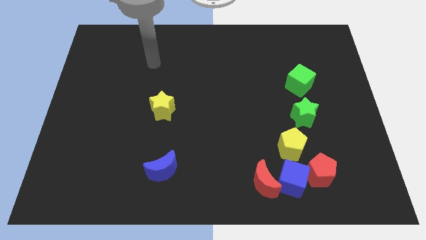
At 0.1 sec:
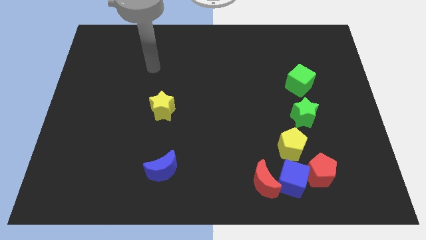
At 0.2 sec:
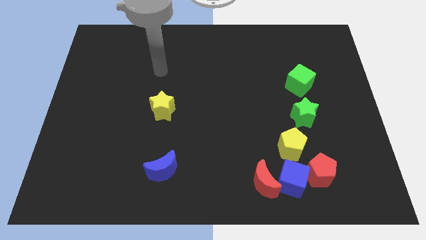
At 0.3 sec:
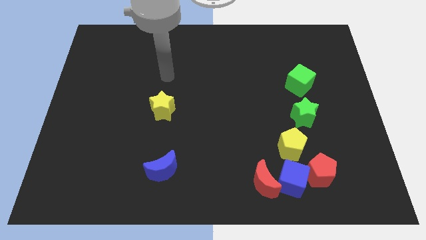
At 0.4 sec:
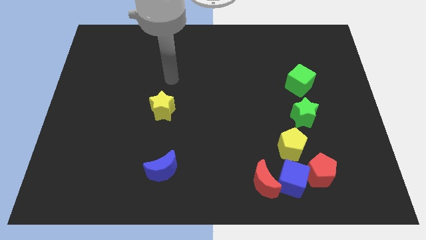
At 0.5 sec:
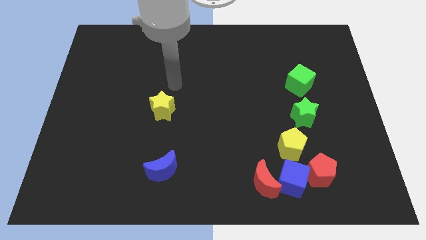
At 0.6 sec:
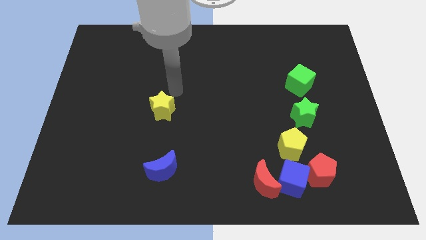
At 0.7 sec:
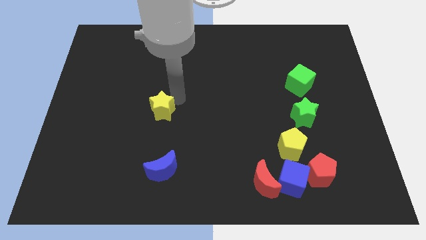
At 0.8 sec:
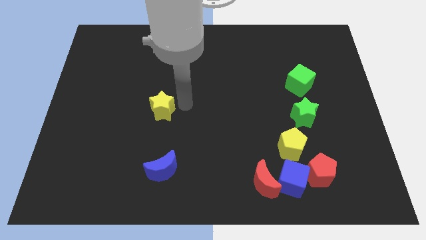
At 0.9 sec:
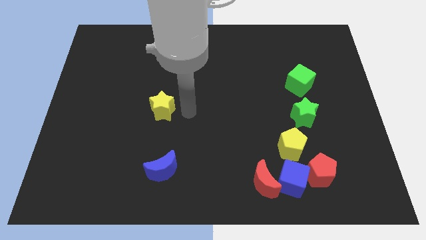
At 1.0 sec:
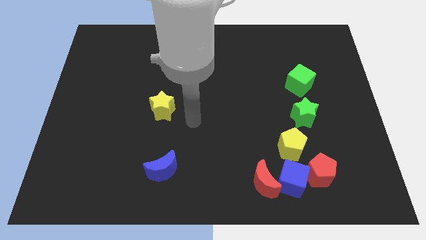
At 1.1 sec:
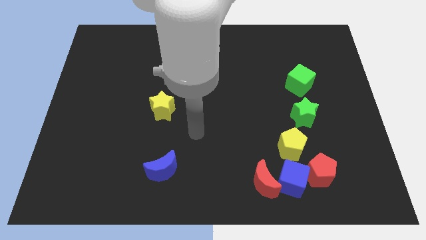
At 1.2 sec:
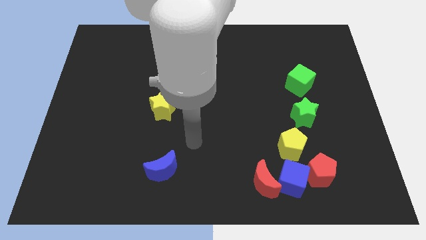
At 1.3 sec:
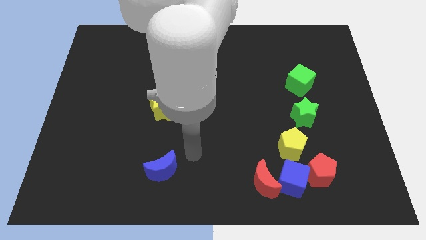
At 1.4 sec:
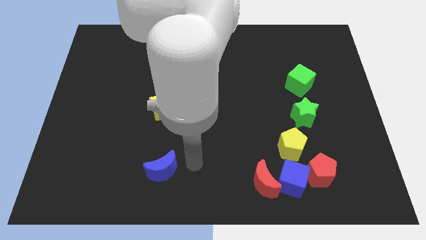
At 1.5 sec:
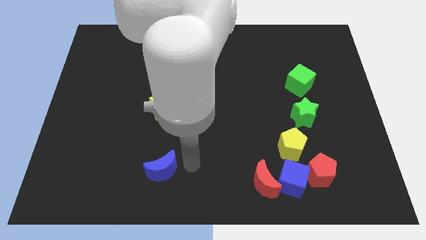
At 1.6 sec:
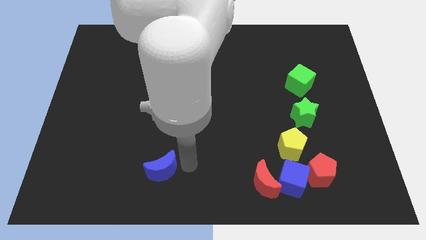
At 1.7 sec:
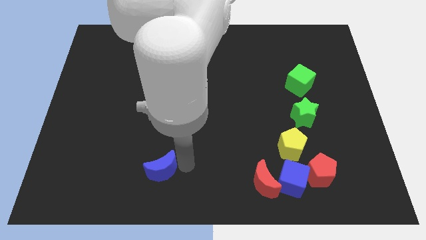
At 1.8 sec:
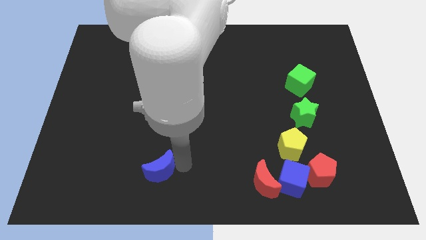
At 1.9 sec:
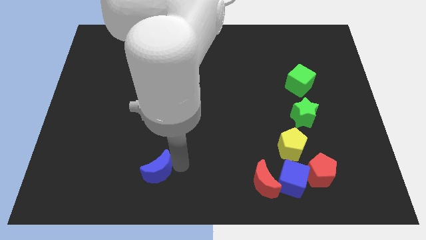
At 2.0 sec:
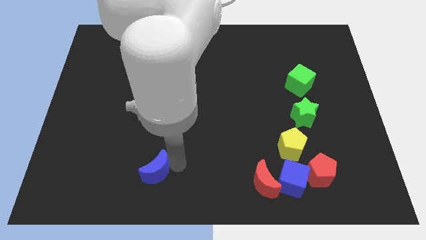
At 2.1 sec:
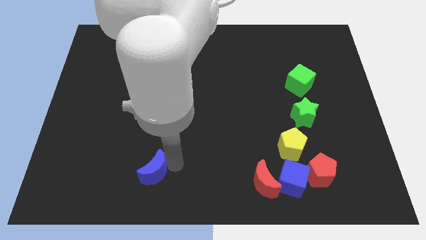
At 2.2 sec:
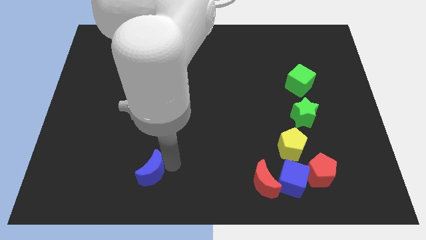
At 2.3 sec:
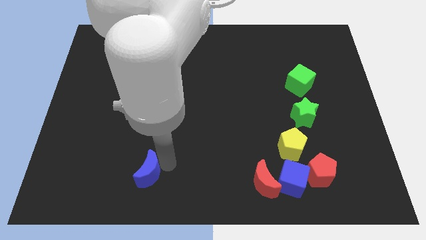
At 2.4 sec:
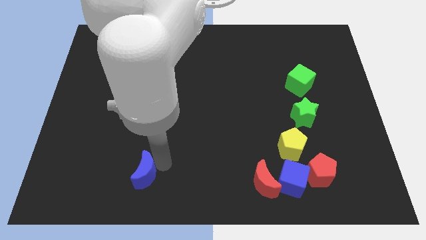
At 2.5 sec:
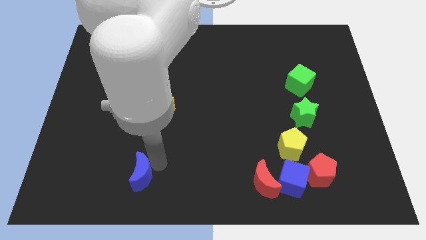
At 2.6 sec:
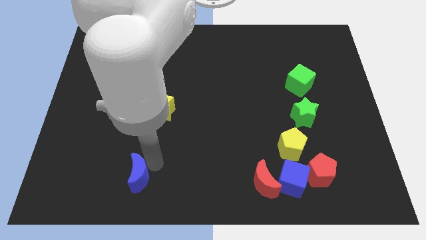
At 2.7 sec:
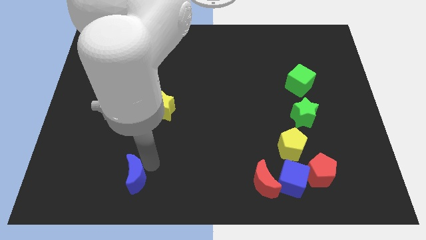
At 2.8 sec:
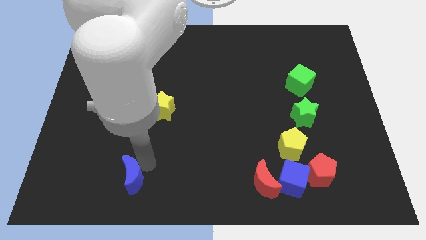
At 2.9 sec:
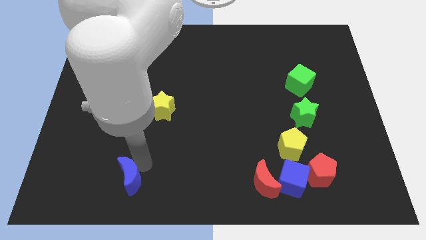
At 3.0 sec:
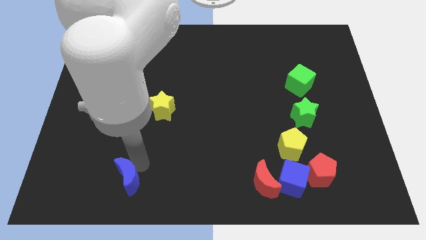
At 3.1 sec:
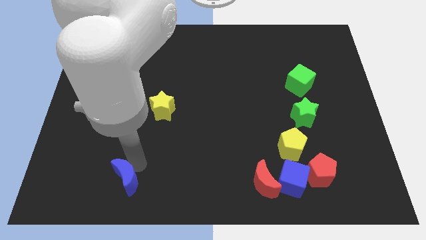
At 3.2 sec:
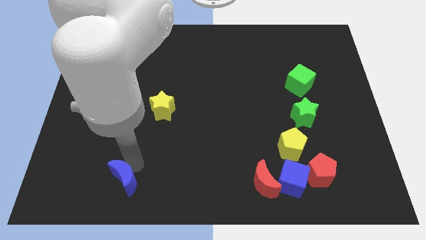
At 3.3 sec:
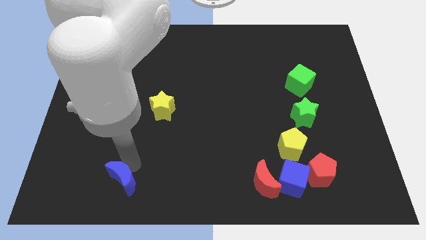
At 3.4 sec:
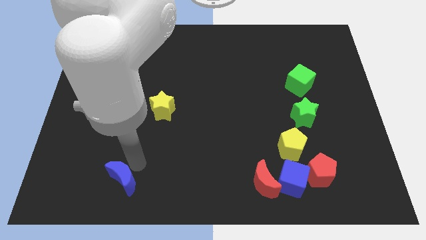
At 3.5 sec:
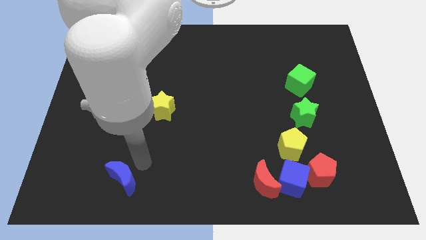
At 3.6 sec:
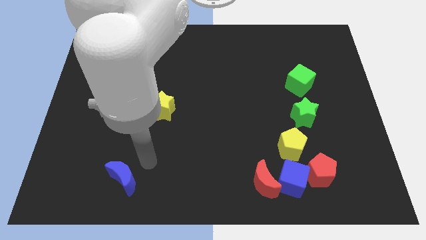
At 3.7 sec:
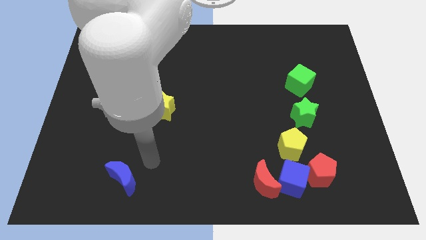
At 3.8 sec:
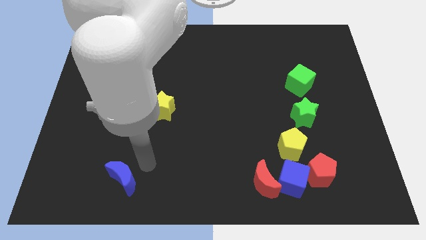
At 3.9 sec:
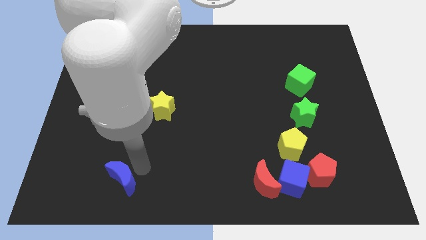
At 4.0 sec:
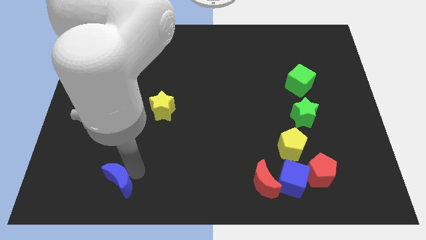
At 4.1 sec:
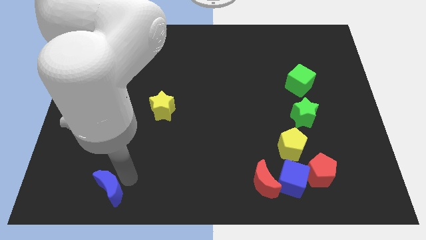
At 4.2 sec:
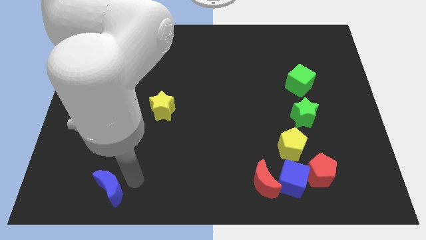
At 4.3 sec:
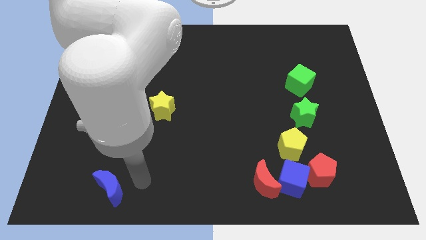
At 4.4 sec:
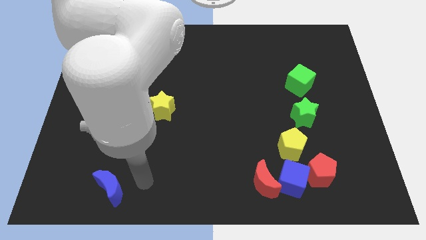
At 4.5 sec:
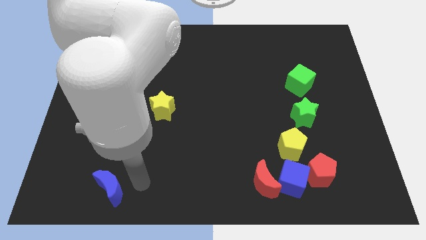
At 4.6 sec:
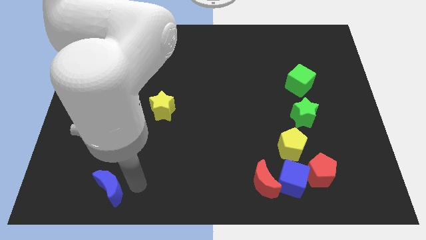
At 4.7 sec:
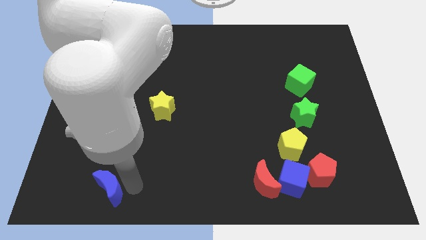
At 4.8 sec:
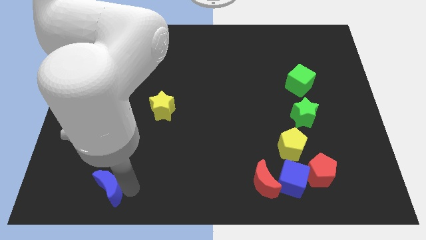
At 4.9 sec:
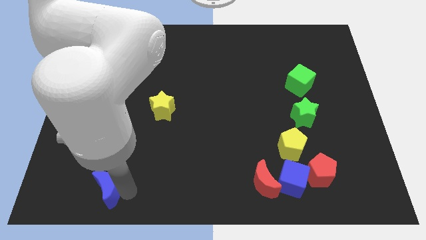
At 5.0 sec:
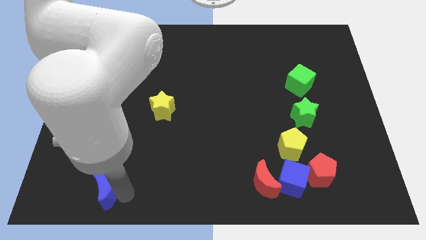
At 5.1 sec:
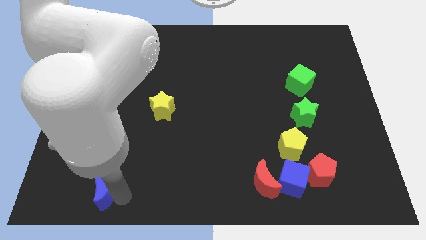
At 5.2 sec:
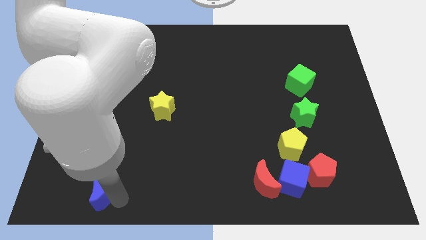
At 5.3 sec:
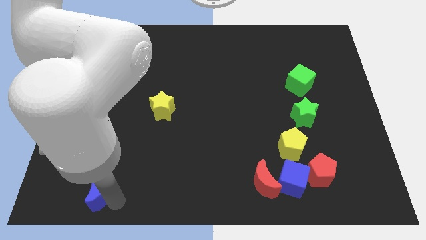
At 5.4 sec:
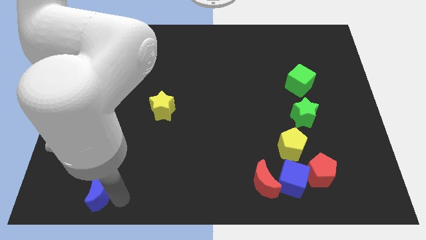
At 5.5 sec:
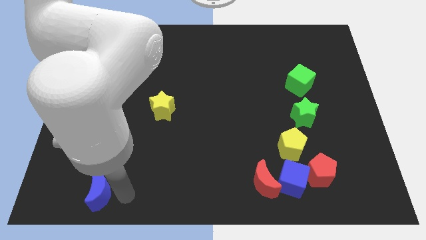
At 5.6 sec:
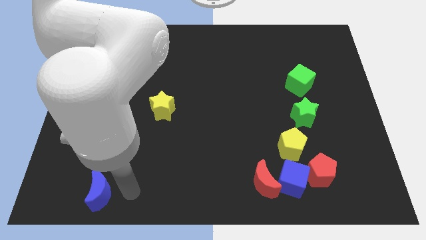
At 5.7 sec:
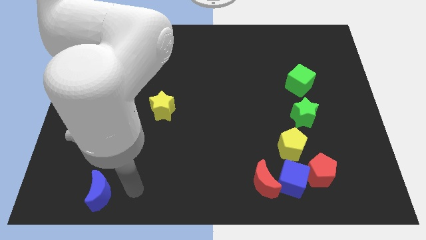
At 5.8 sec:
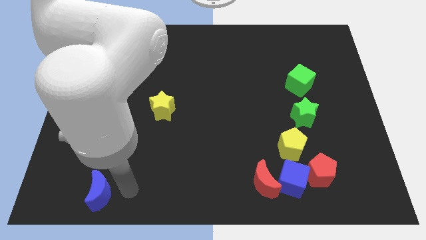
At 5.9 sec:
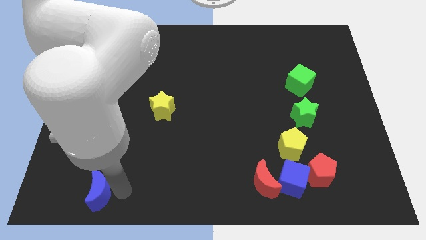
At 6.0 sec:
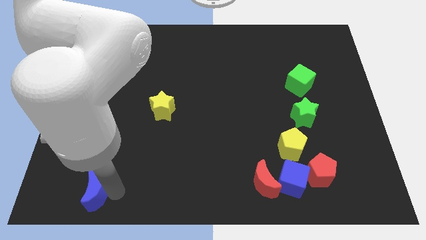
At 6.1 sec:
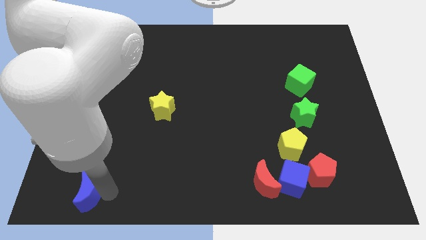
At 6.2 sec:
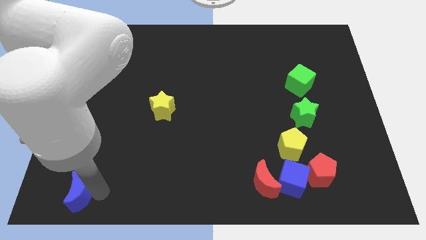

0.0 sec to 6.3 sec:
push the blue moon to the bottom left

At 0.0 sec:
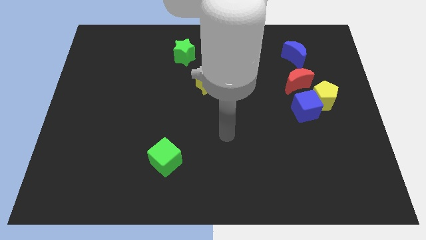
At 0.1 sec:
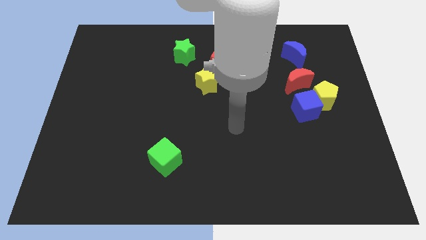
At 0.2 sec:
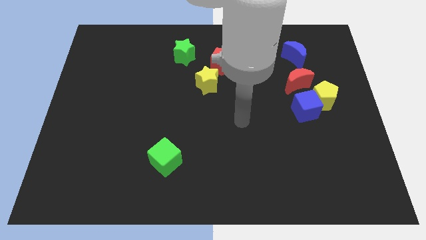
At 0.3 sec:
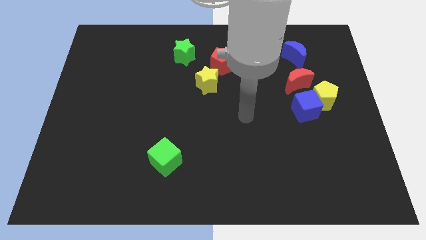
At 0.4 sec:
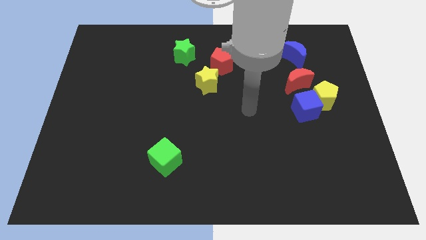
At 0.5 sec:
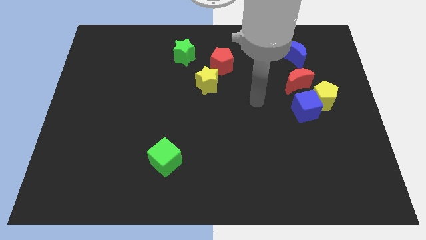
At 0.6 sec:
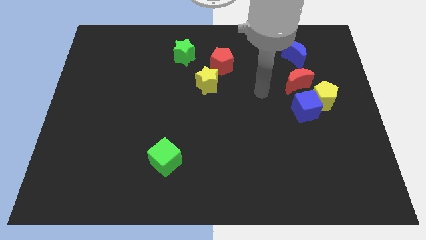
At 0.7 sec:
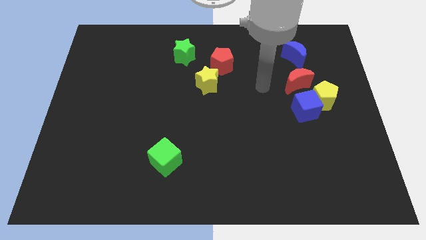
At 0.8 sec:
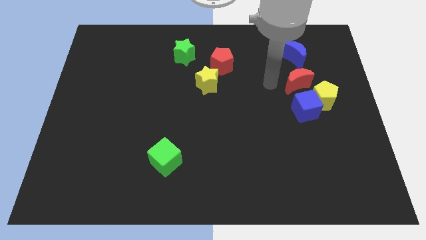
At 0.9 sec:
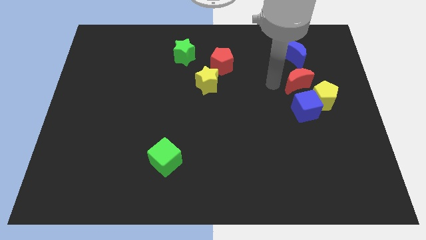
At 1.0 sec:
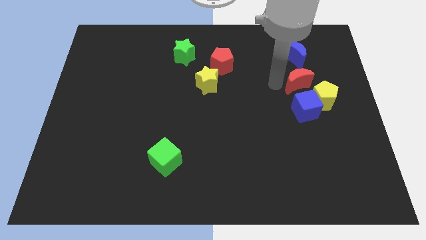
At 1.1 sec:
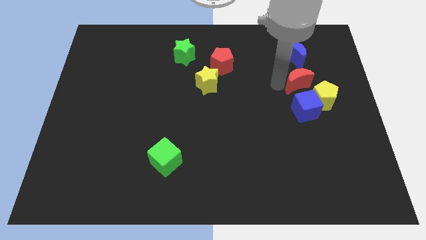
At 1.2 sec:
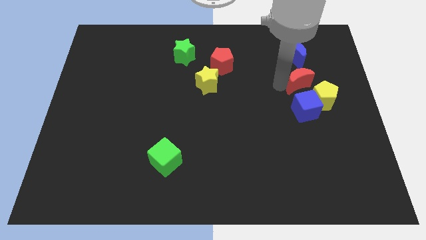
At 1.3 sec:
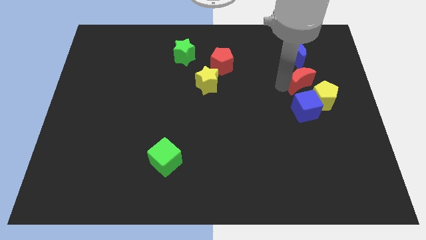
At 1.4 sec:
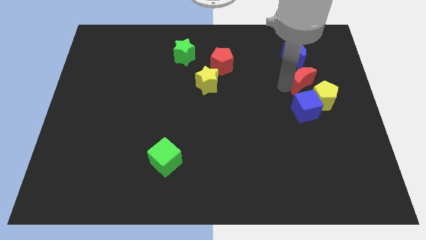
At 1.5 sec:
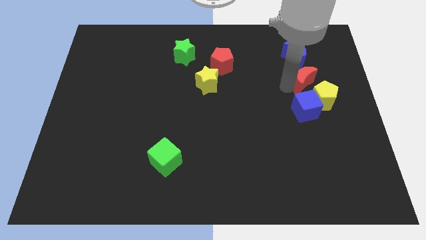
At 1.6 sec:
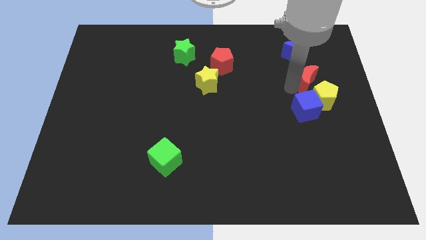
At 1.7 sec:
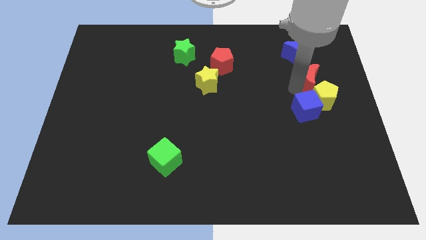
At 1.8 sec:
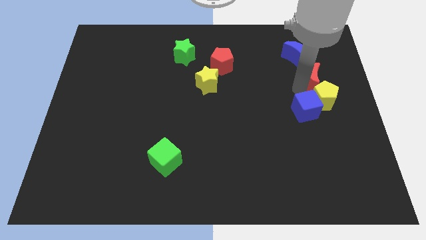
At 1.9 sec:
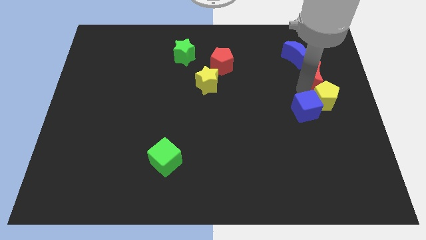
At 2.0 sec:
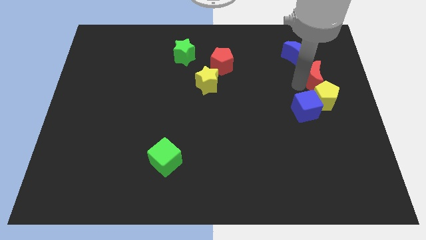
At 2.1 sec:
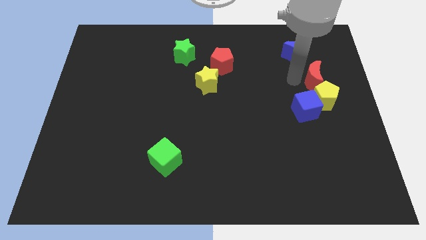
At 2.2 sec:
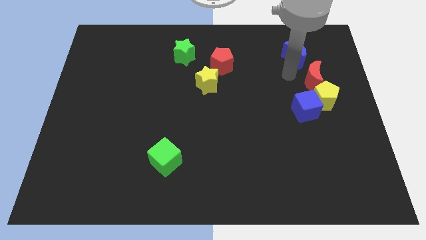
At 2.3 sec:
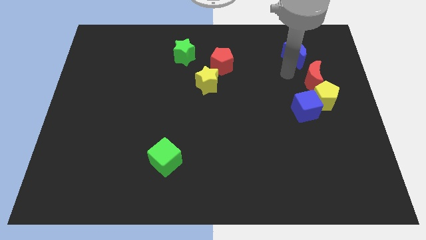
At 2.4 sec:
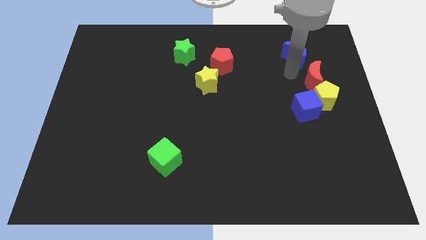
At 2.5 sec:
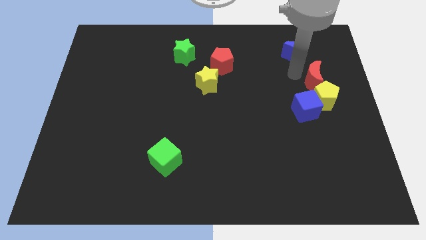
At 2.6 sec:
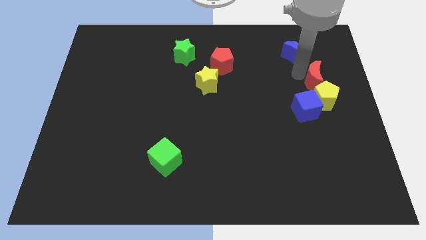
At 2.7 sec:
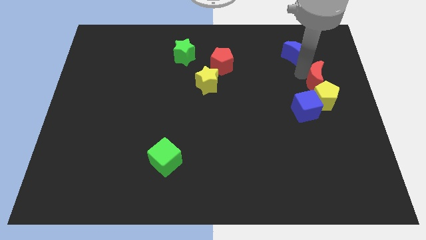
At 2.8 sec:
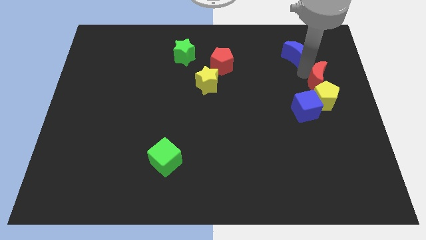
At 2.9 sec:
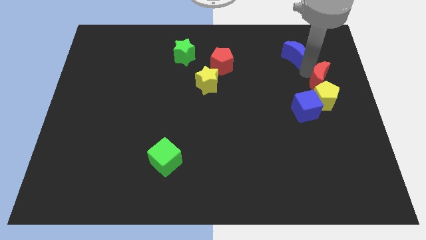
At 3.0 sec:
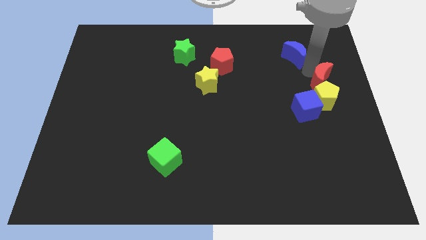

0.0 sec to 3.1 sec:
slide the red moon to the center right
